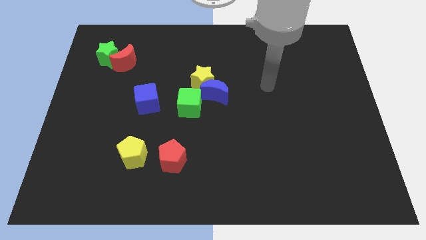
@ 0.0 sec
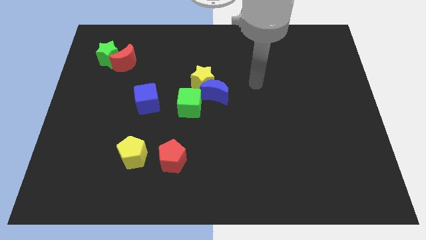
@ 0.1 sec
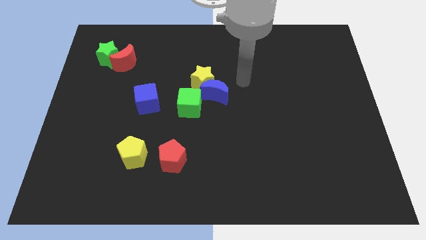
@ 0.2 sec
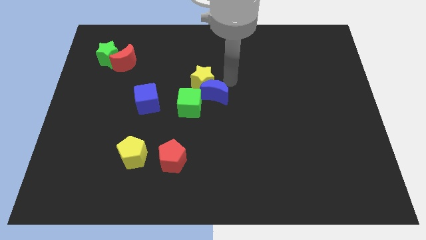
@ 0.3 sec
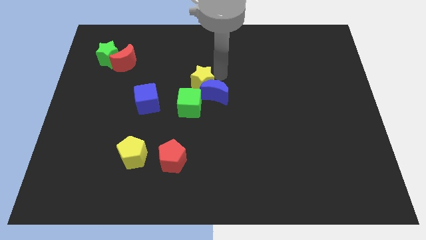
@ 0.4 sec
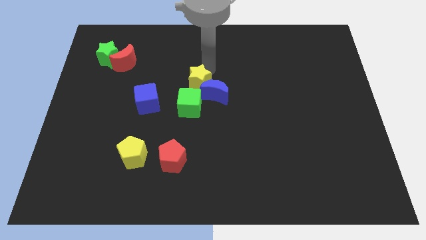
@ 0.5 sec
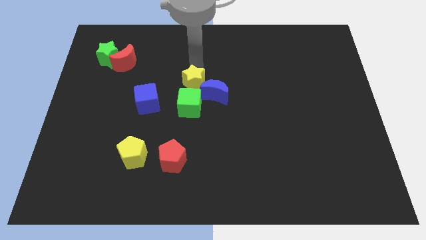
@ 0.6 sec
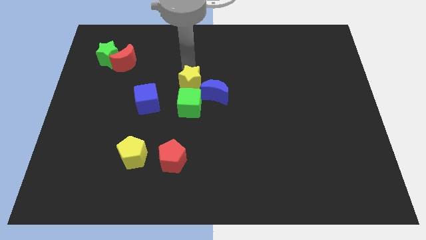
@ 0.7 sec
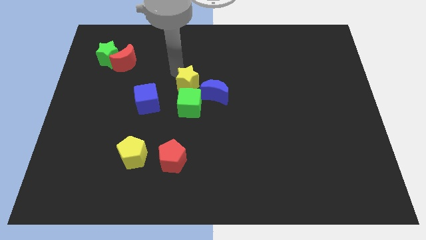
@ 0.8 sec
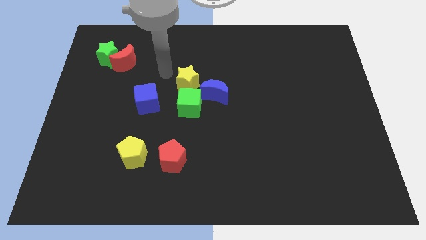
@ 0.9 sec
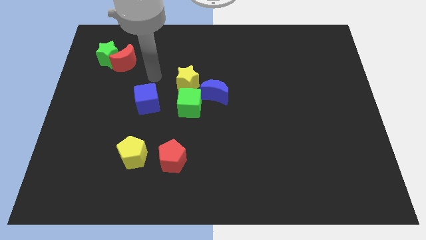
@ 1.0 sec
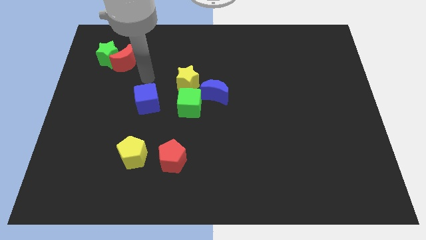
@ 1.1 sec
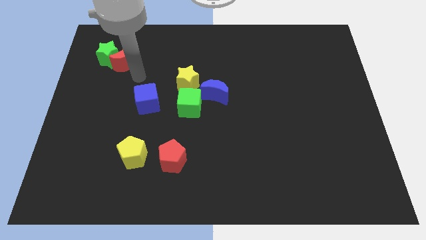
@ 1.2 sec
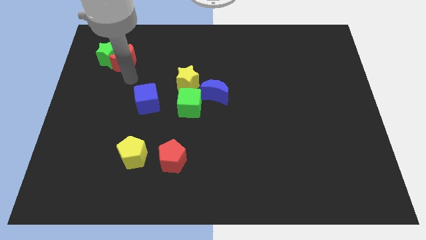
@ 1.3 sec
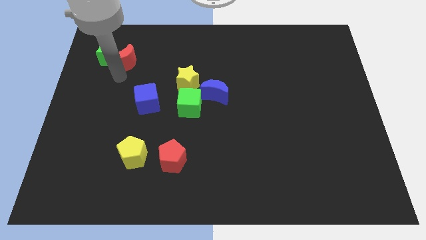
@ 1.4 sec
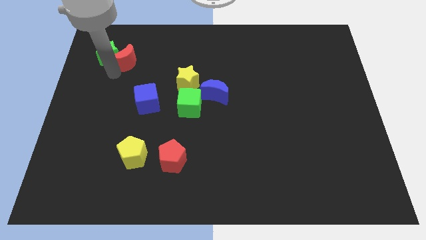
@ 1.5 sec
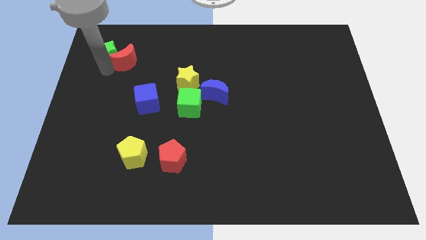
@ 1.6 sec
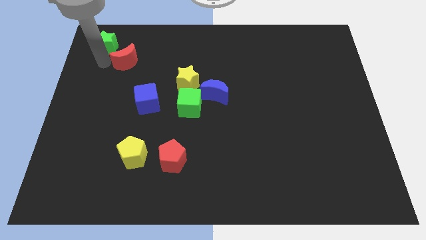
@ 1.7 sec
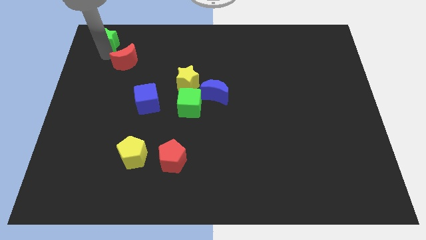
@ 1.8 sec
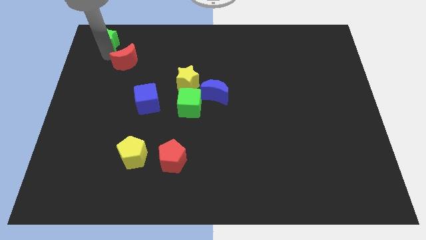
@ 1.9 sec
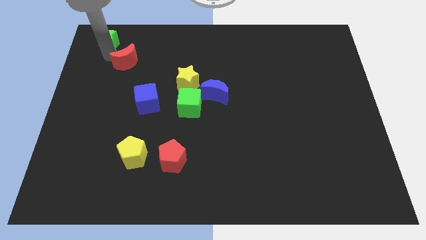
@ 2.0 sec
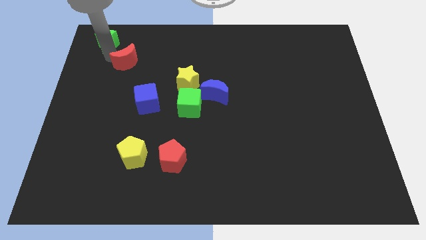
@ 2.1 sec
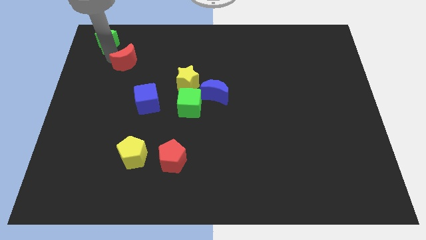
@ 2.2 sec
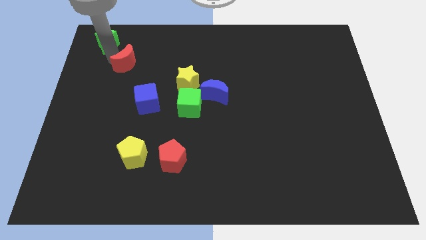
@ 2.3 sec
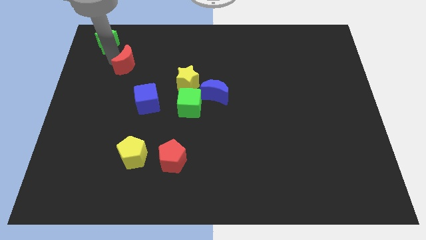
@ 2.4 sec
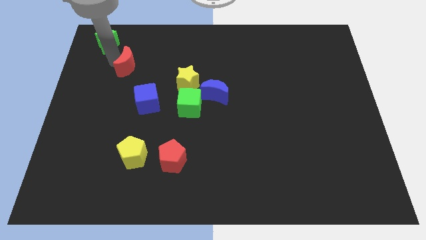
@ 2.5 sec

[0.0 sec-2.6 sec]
separate the red moon from the green star

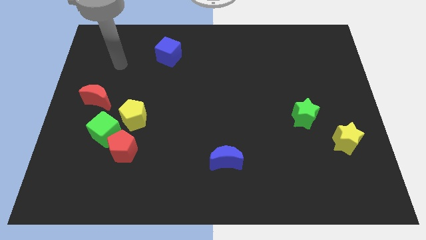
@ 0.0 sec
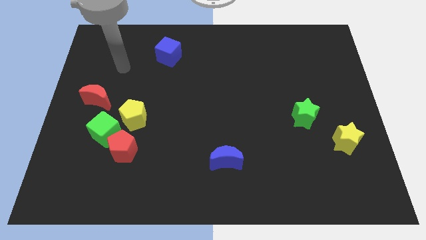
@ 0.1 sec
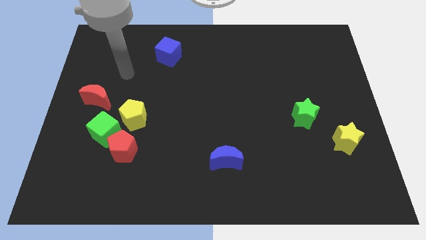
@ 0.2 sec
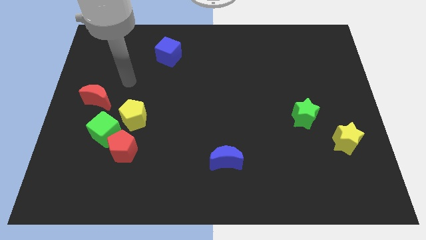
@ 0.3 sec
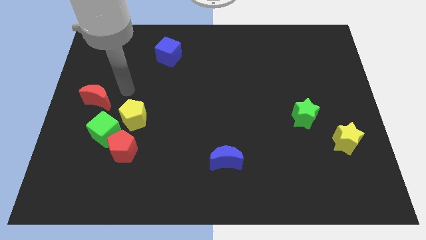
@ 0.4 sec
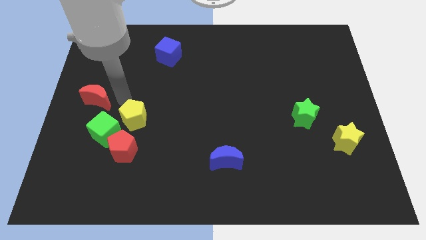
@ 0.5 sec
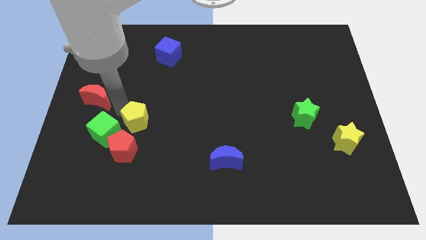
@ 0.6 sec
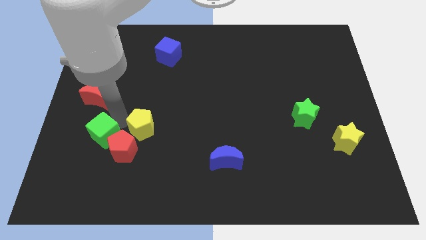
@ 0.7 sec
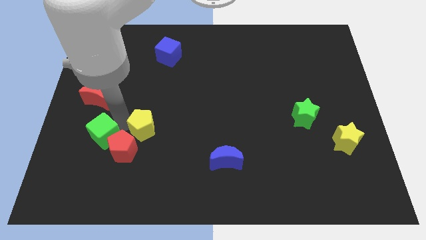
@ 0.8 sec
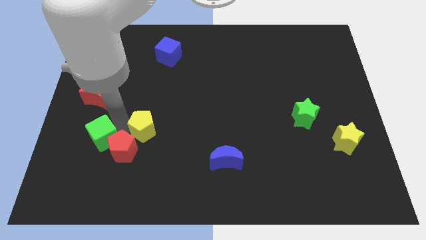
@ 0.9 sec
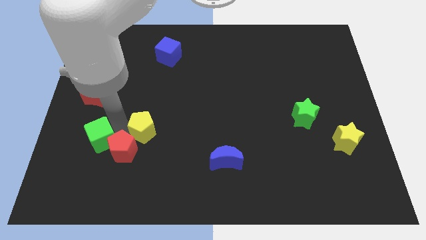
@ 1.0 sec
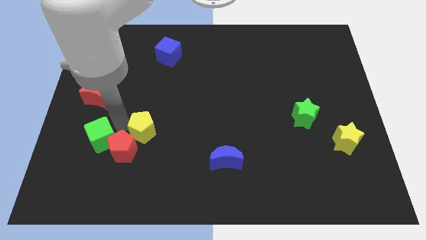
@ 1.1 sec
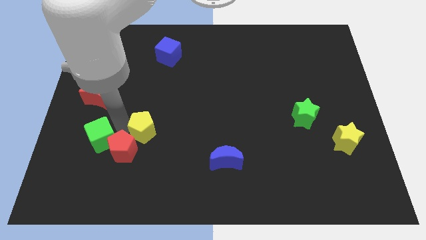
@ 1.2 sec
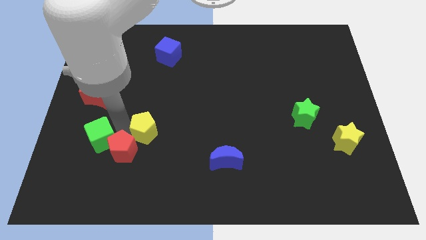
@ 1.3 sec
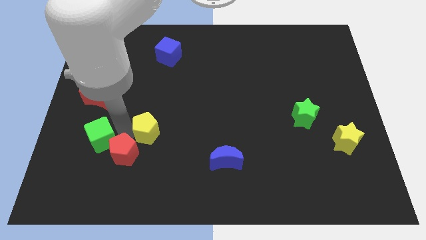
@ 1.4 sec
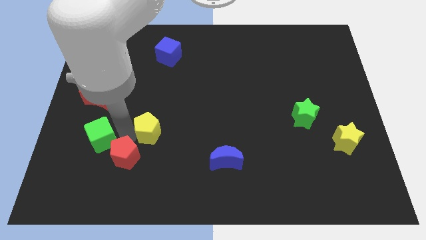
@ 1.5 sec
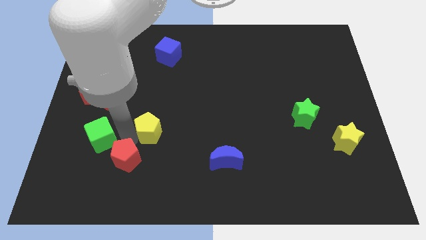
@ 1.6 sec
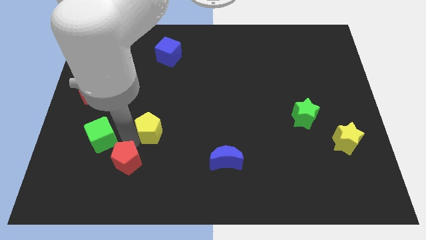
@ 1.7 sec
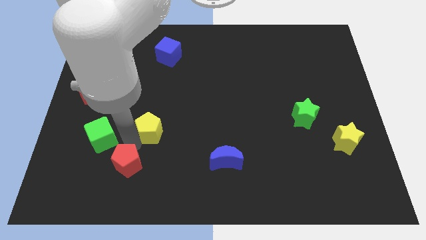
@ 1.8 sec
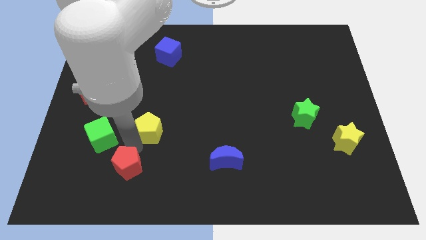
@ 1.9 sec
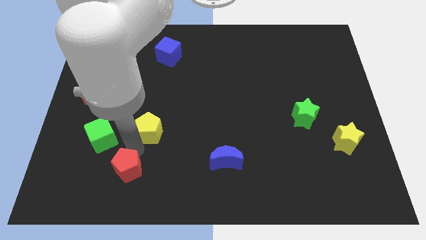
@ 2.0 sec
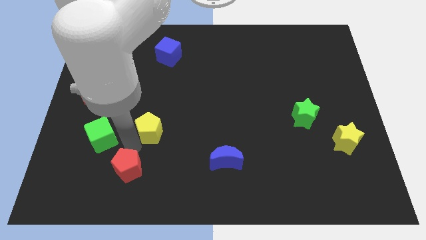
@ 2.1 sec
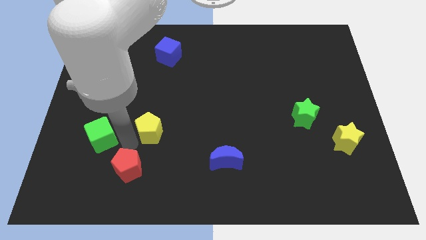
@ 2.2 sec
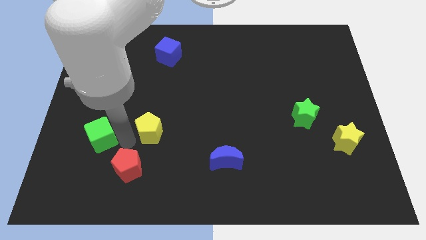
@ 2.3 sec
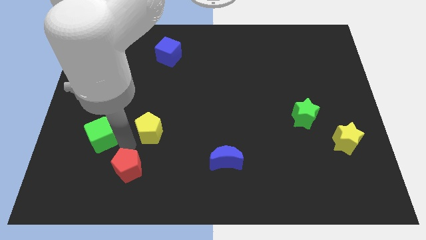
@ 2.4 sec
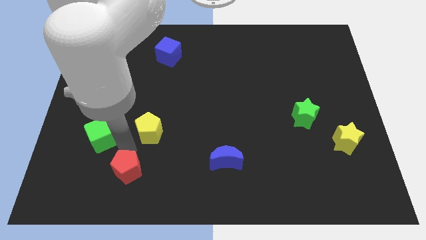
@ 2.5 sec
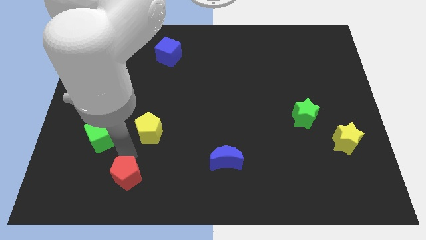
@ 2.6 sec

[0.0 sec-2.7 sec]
pull the red pentagon apart from the green cube and yellow pentagon

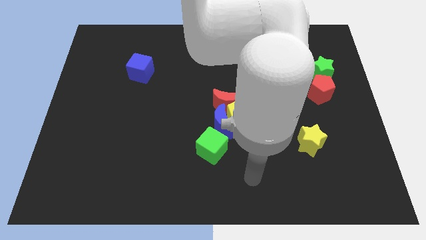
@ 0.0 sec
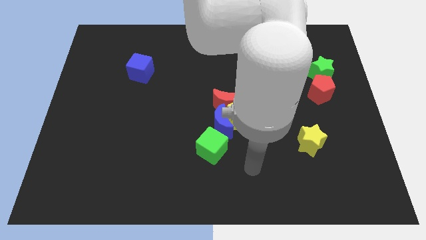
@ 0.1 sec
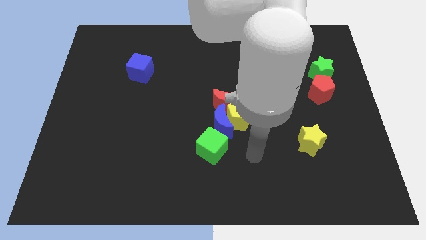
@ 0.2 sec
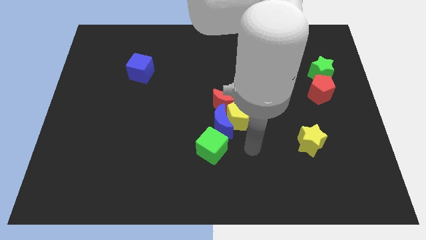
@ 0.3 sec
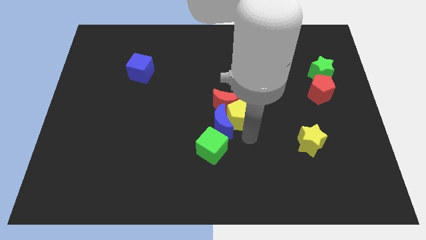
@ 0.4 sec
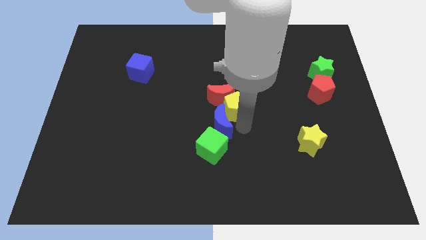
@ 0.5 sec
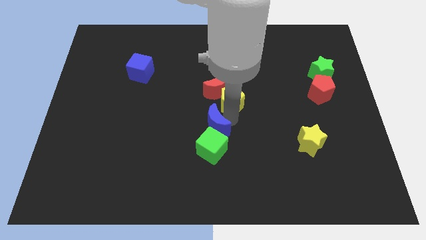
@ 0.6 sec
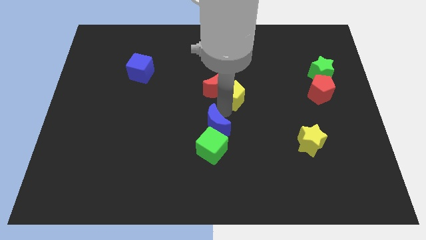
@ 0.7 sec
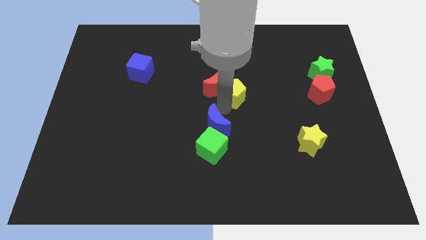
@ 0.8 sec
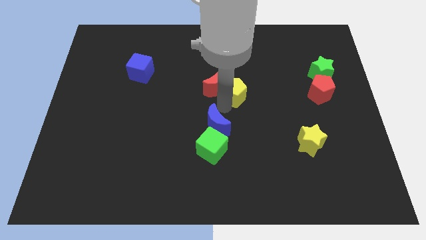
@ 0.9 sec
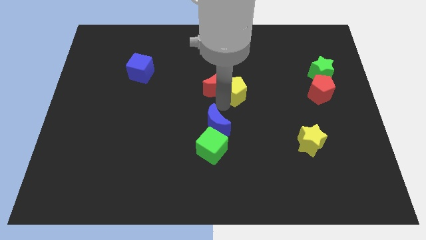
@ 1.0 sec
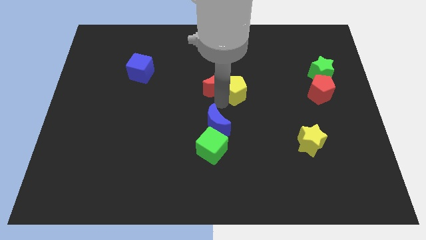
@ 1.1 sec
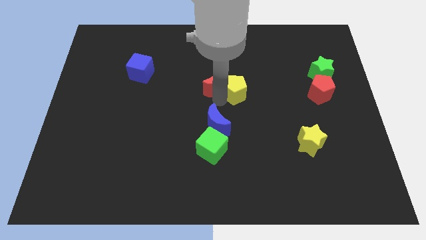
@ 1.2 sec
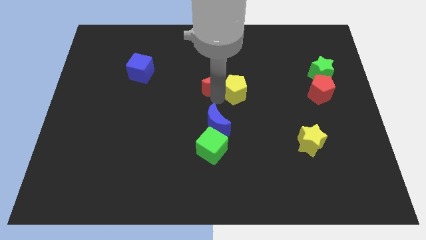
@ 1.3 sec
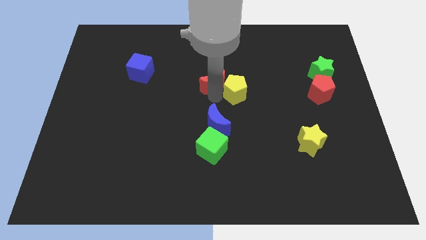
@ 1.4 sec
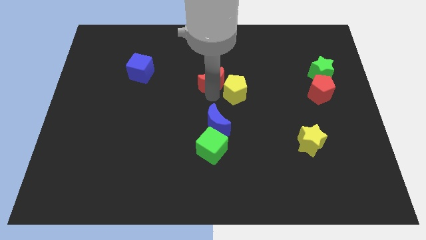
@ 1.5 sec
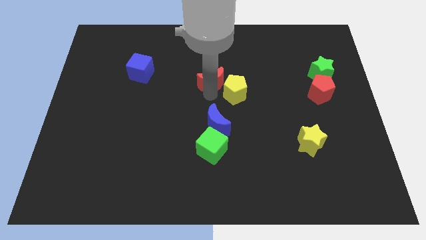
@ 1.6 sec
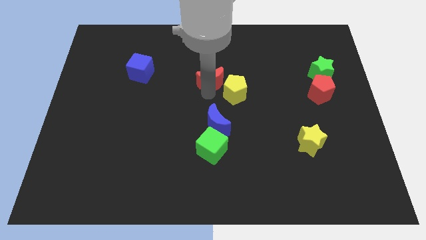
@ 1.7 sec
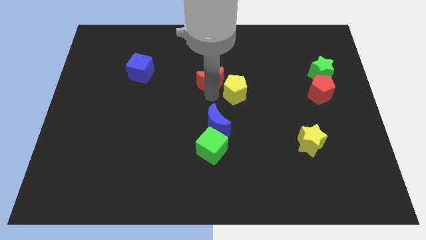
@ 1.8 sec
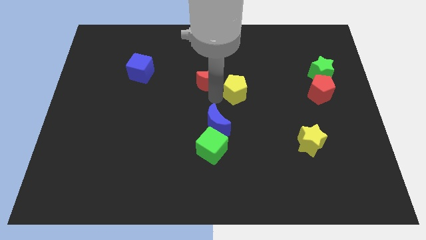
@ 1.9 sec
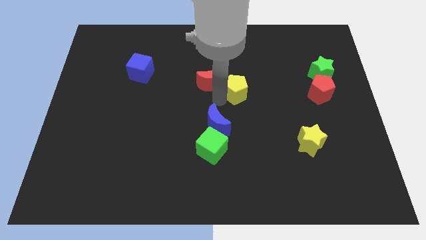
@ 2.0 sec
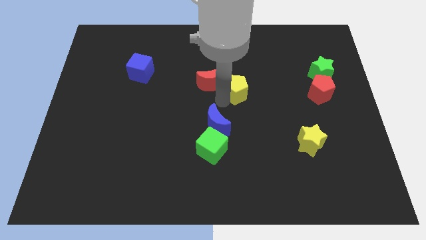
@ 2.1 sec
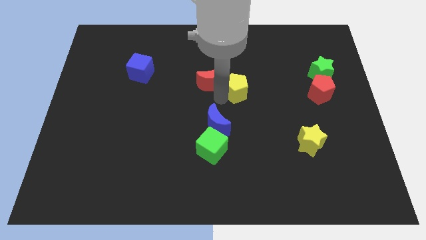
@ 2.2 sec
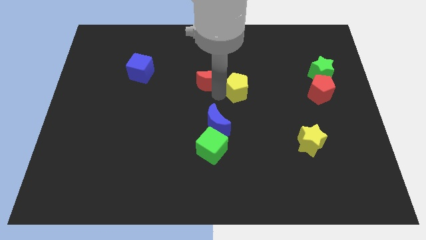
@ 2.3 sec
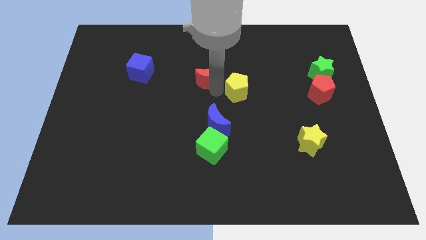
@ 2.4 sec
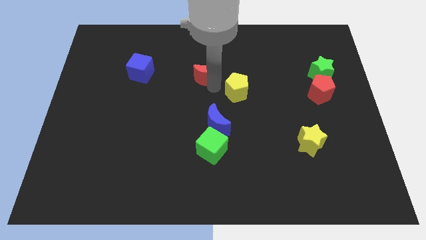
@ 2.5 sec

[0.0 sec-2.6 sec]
separate the red moon from the yellow pentagon and blue moon

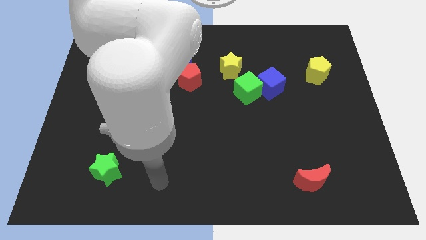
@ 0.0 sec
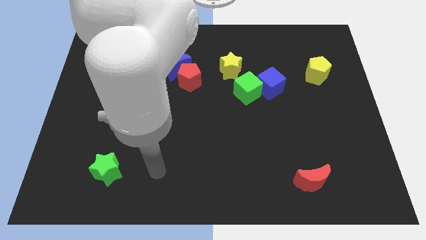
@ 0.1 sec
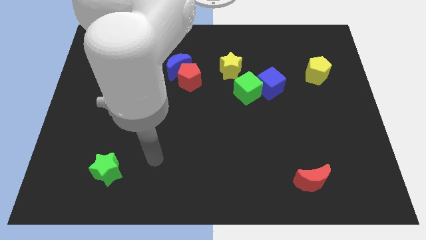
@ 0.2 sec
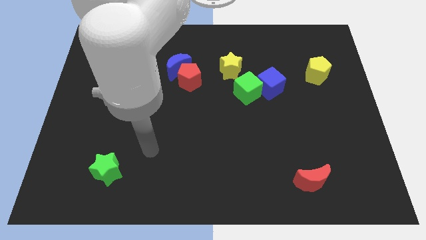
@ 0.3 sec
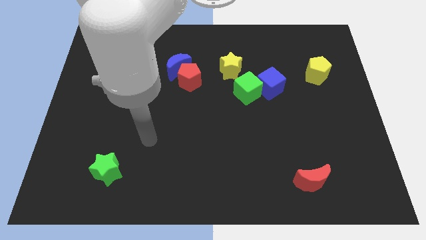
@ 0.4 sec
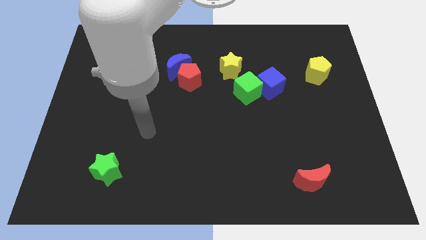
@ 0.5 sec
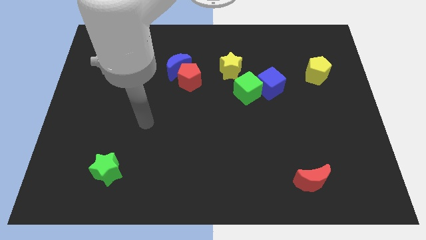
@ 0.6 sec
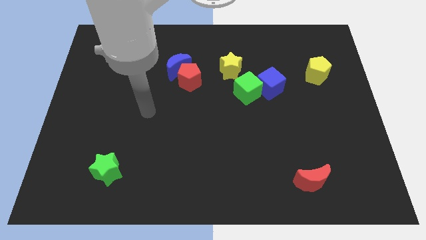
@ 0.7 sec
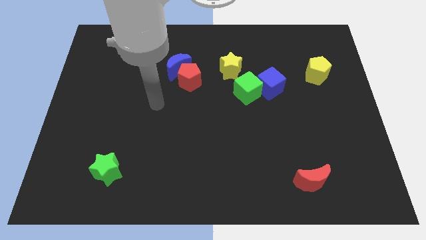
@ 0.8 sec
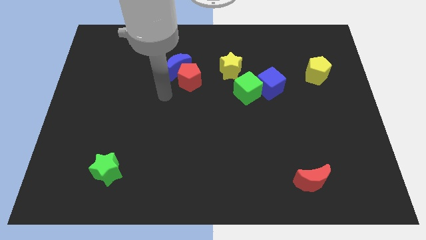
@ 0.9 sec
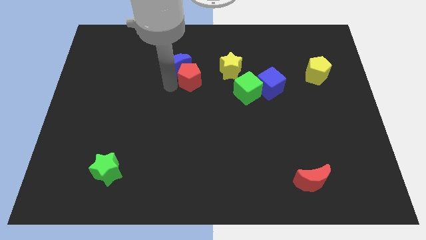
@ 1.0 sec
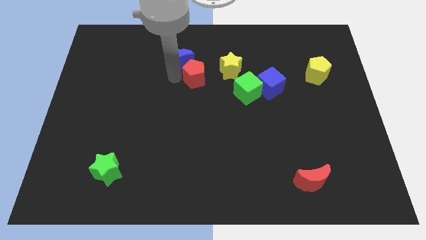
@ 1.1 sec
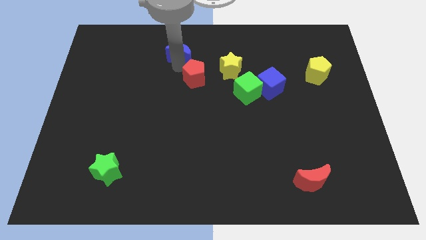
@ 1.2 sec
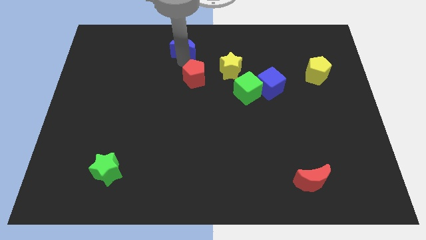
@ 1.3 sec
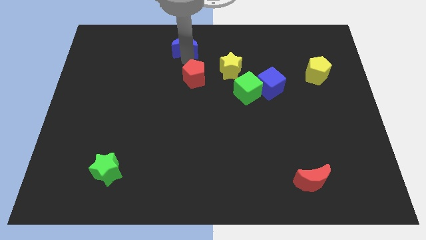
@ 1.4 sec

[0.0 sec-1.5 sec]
pull the red pentagon apart from the blue moon
